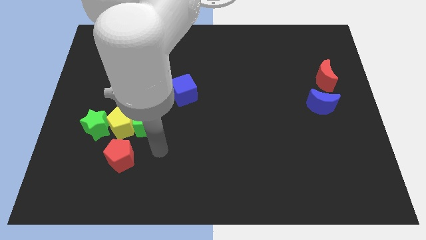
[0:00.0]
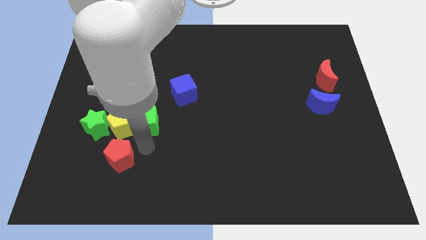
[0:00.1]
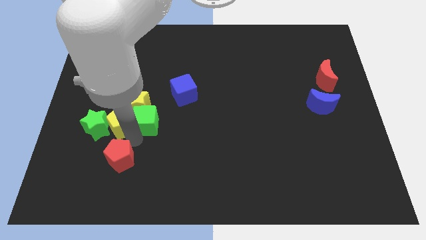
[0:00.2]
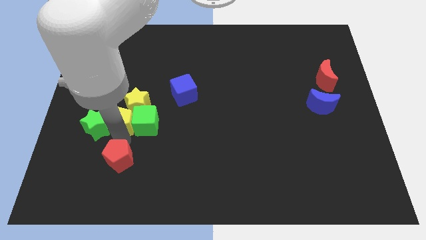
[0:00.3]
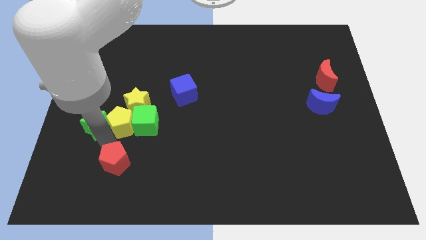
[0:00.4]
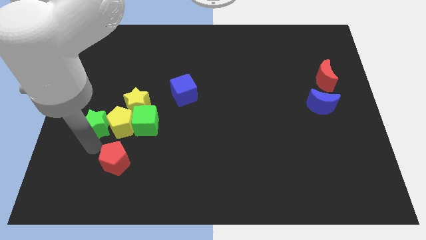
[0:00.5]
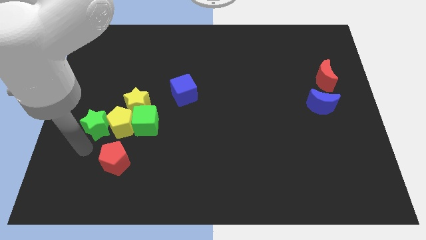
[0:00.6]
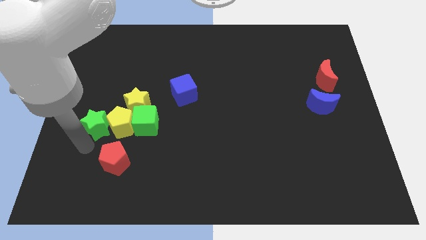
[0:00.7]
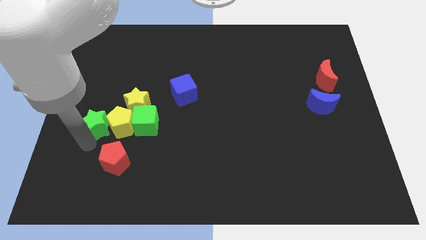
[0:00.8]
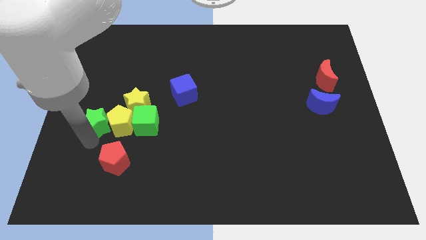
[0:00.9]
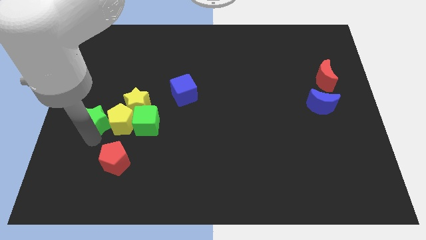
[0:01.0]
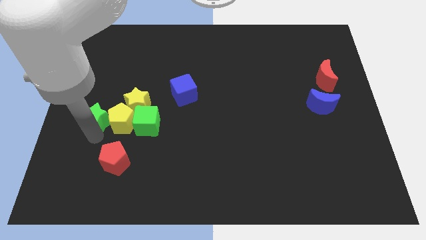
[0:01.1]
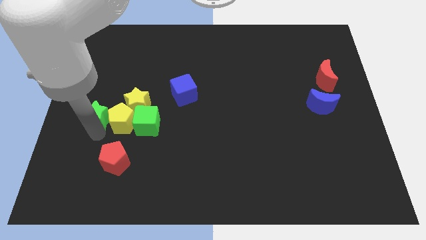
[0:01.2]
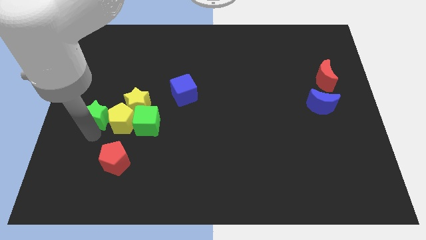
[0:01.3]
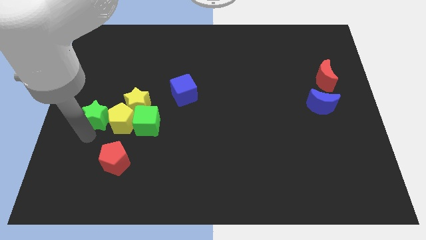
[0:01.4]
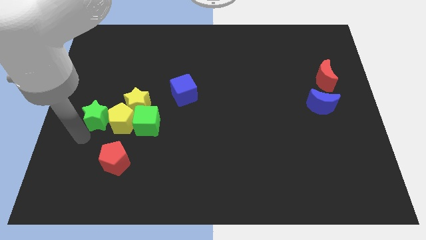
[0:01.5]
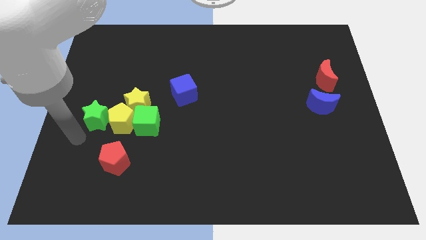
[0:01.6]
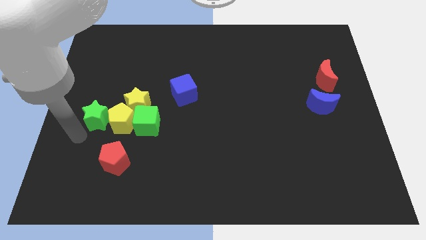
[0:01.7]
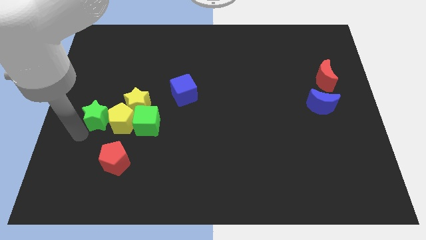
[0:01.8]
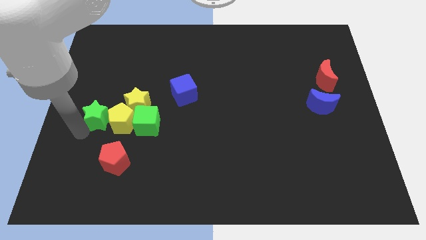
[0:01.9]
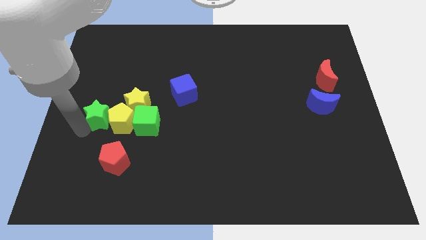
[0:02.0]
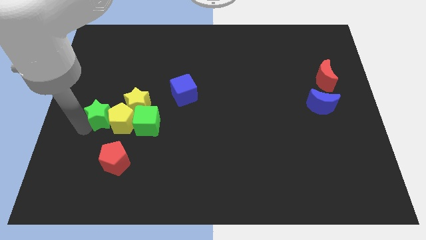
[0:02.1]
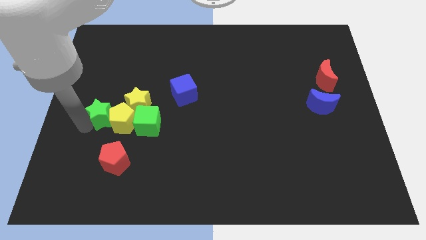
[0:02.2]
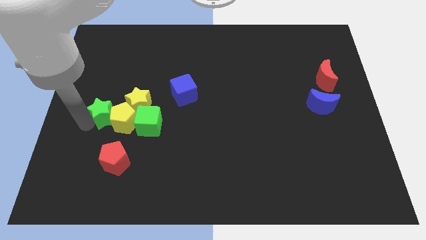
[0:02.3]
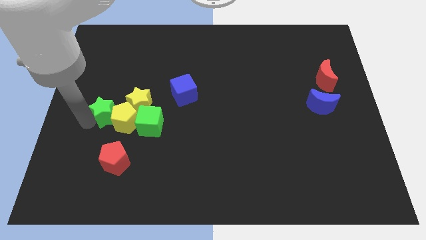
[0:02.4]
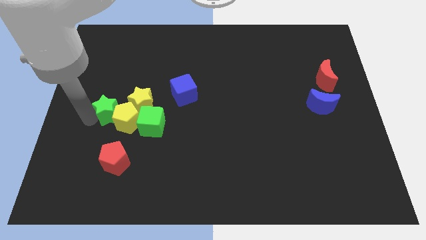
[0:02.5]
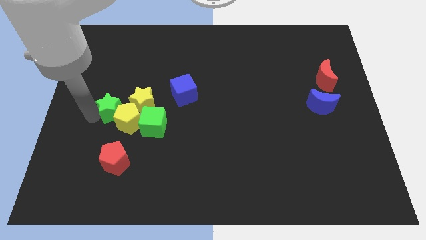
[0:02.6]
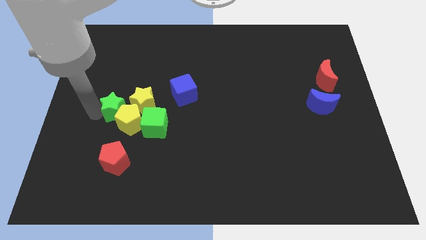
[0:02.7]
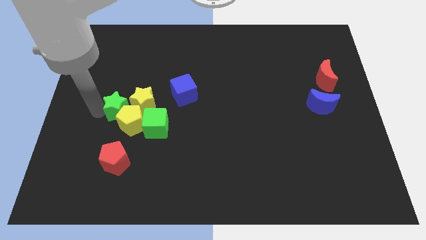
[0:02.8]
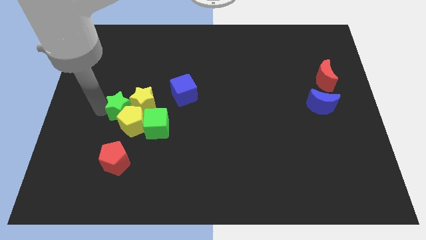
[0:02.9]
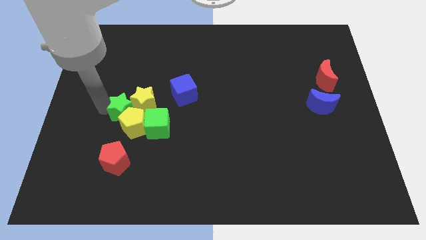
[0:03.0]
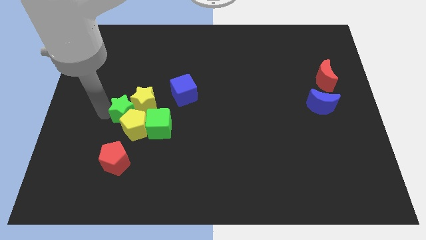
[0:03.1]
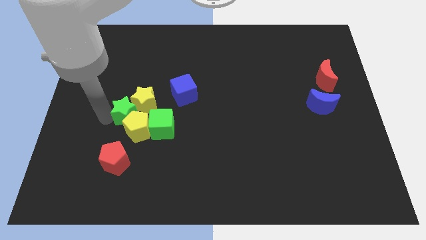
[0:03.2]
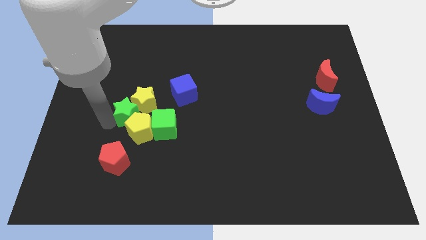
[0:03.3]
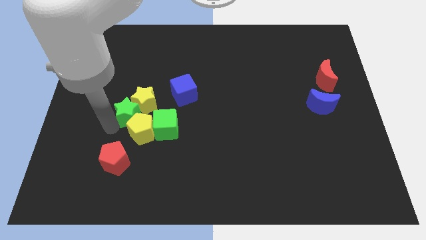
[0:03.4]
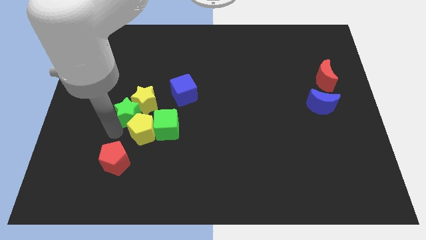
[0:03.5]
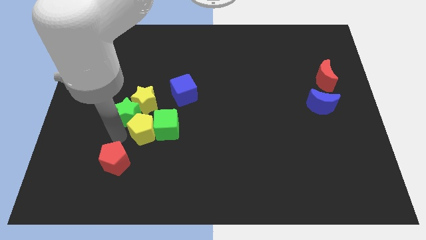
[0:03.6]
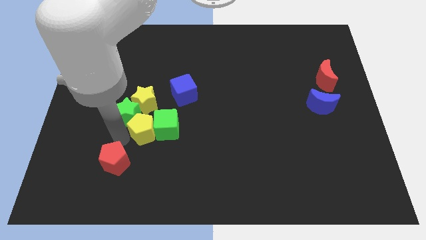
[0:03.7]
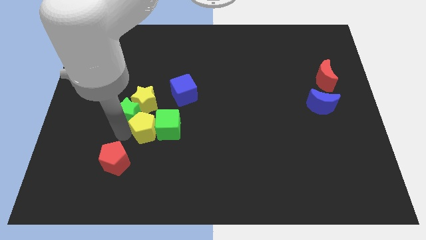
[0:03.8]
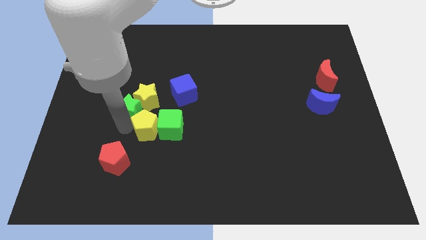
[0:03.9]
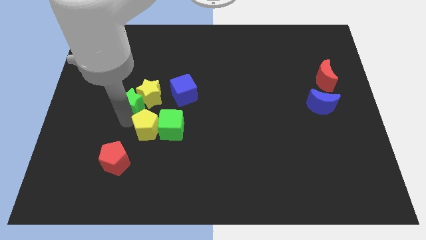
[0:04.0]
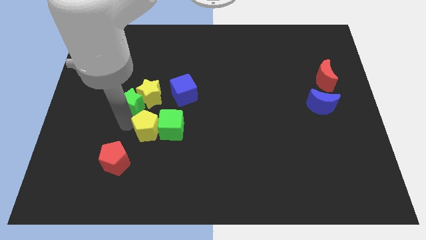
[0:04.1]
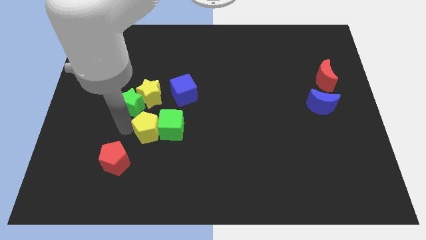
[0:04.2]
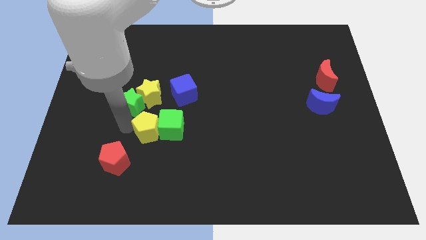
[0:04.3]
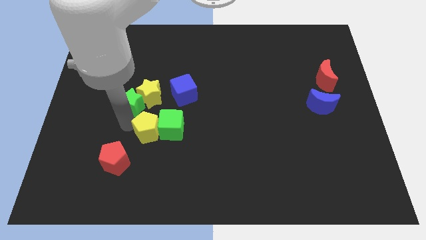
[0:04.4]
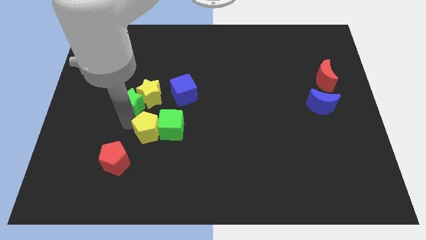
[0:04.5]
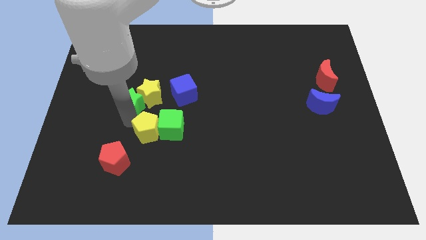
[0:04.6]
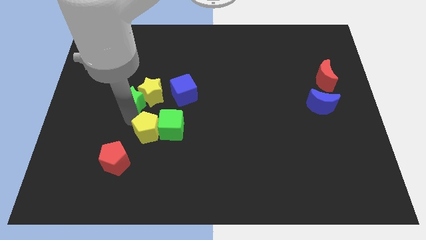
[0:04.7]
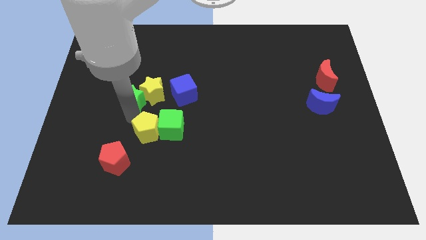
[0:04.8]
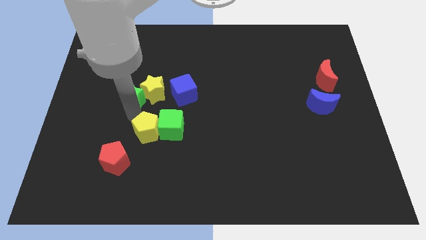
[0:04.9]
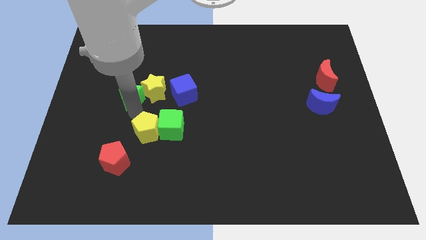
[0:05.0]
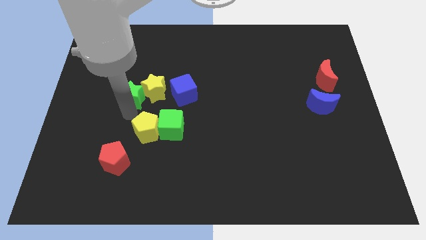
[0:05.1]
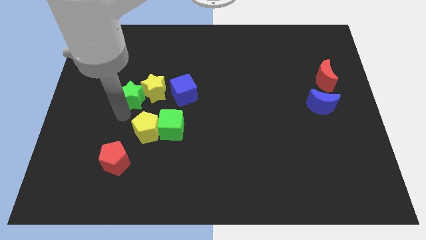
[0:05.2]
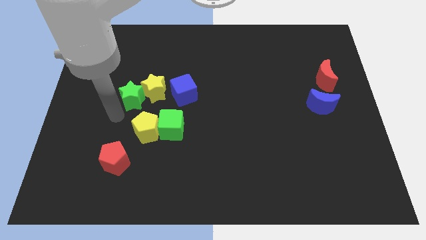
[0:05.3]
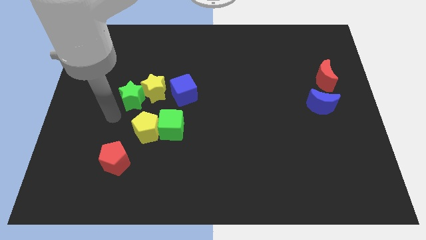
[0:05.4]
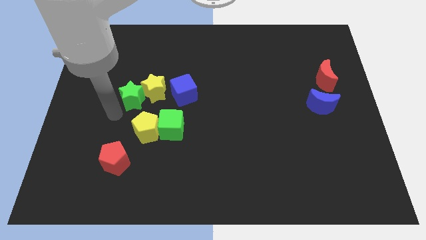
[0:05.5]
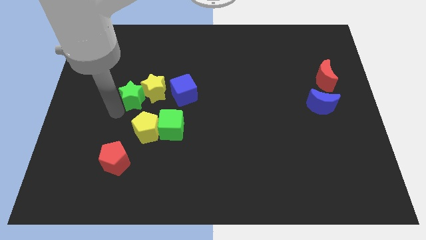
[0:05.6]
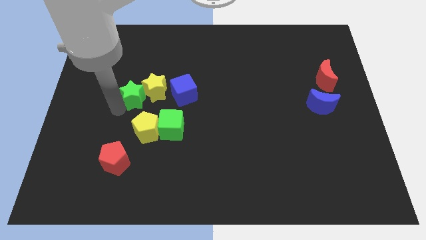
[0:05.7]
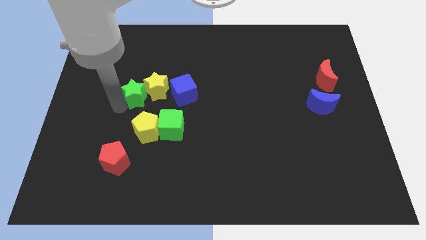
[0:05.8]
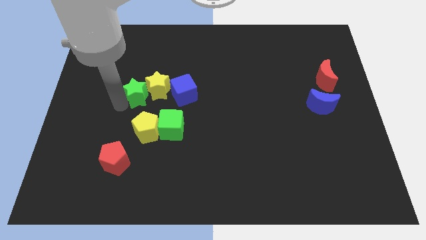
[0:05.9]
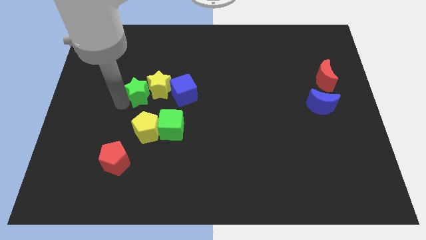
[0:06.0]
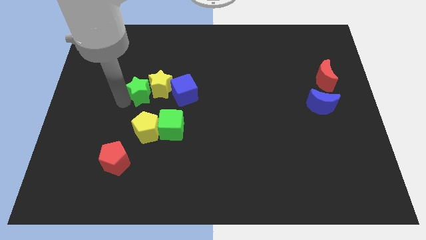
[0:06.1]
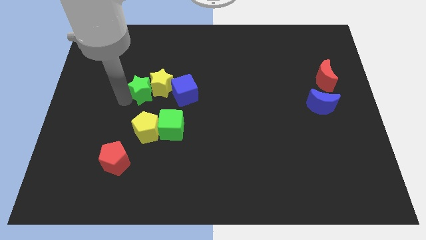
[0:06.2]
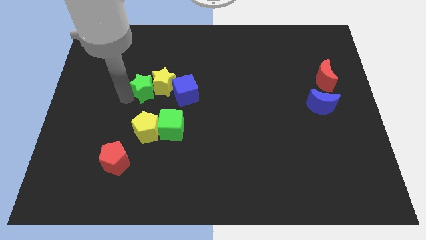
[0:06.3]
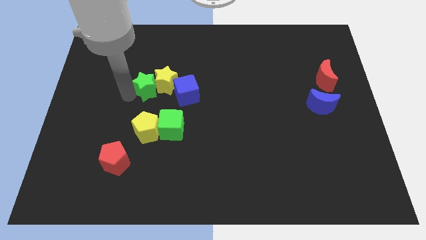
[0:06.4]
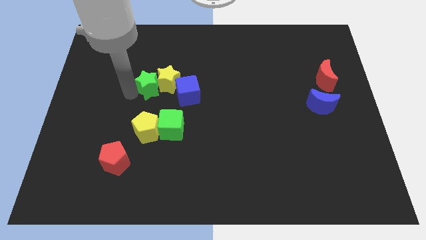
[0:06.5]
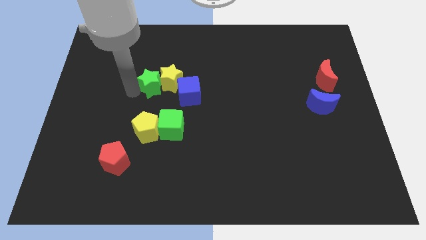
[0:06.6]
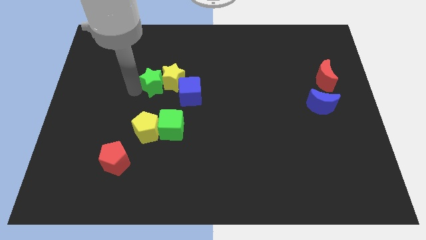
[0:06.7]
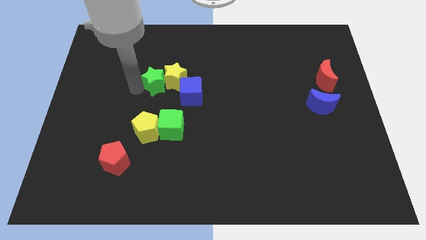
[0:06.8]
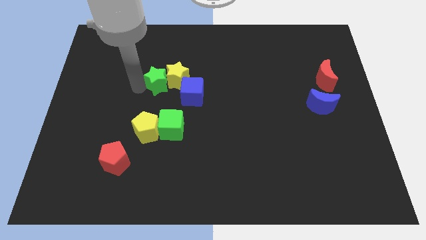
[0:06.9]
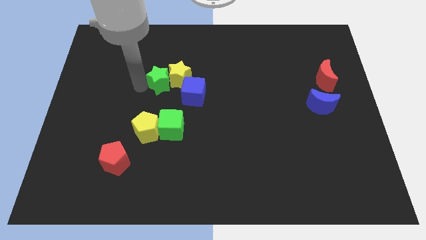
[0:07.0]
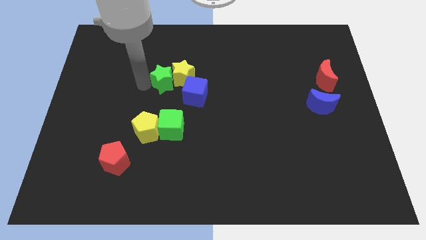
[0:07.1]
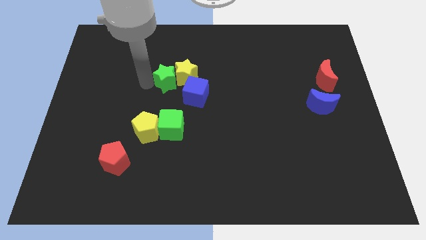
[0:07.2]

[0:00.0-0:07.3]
move the green star up and right

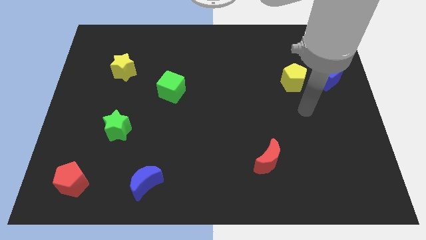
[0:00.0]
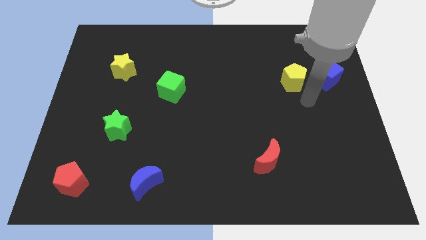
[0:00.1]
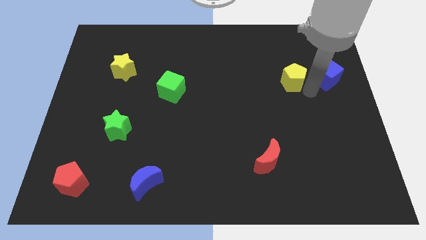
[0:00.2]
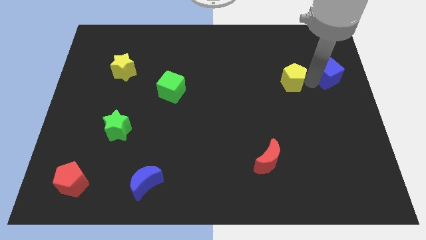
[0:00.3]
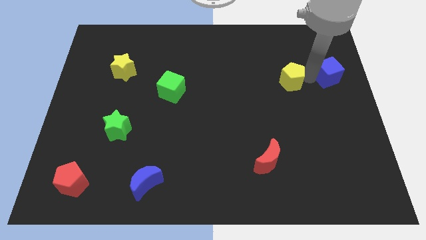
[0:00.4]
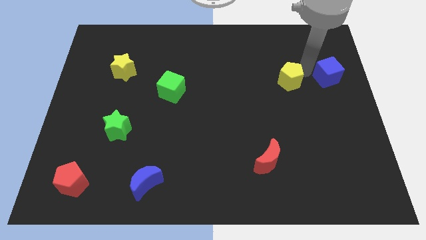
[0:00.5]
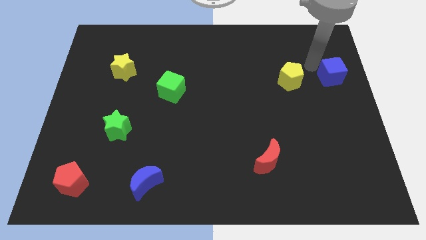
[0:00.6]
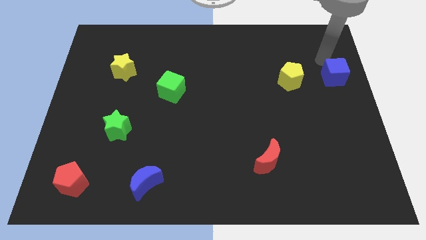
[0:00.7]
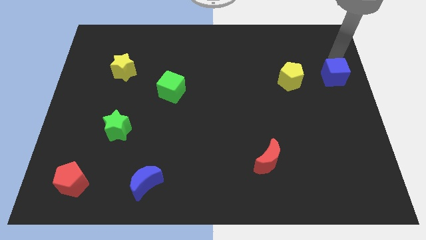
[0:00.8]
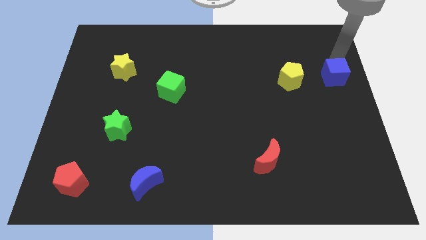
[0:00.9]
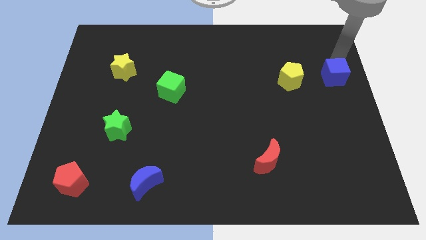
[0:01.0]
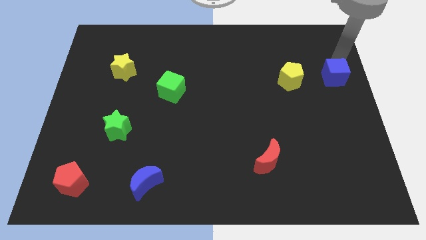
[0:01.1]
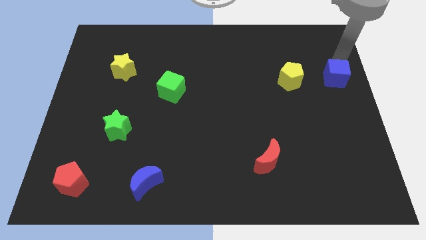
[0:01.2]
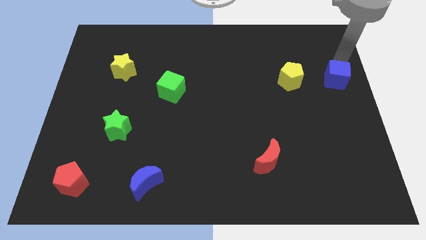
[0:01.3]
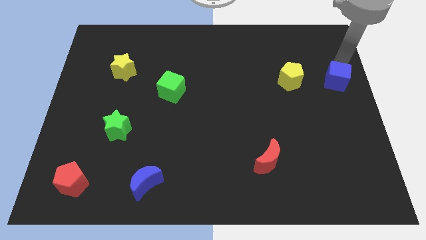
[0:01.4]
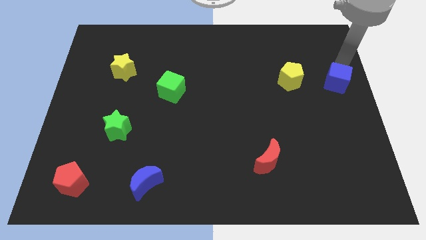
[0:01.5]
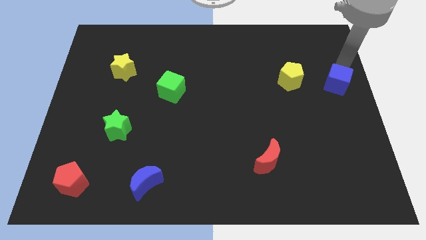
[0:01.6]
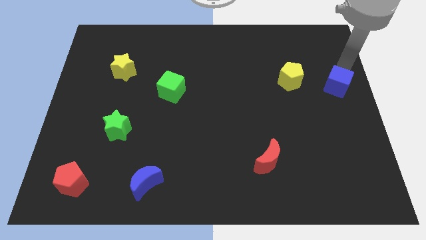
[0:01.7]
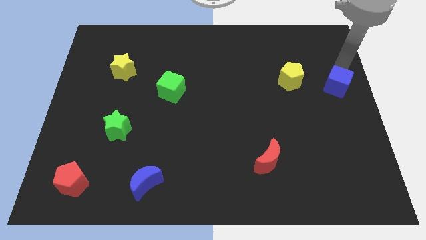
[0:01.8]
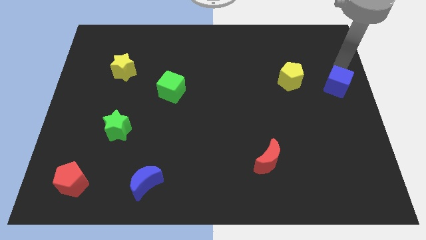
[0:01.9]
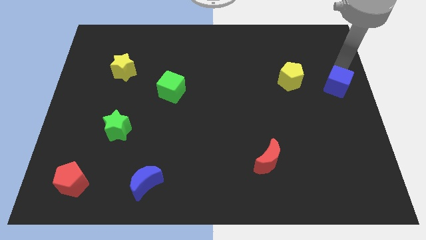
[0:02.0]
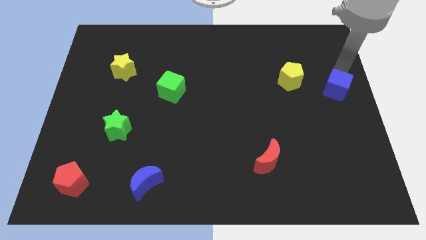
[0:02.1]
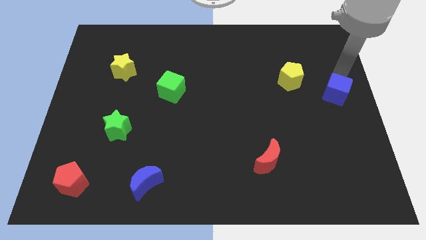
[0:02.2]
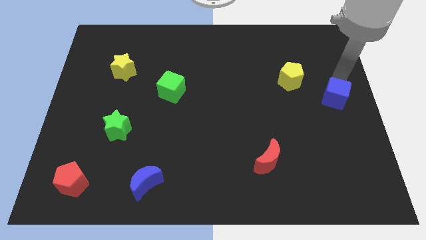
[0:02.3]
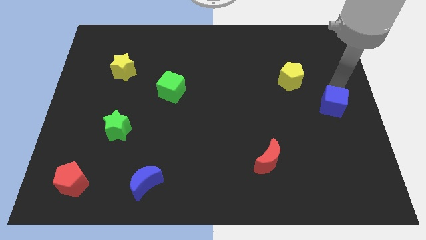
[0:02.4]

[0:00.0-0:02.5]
slightly slide the blue cube down
